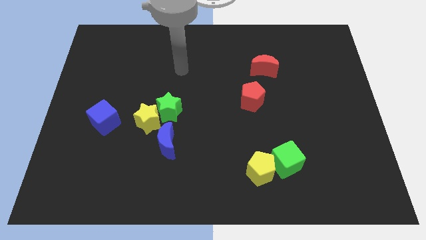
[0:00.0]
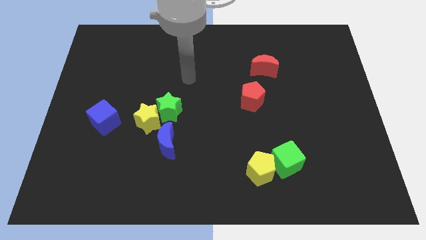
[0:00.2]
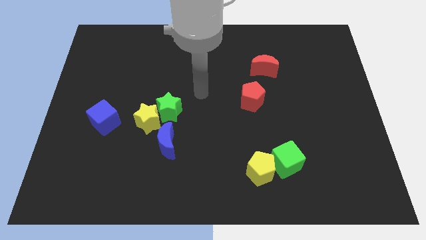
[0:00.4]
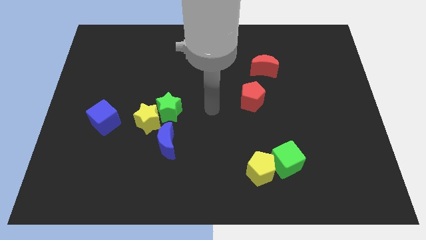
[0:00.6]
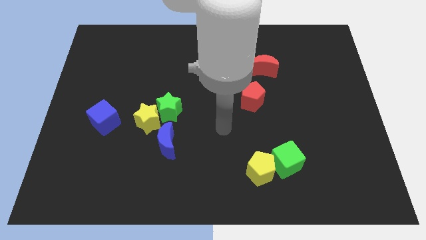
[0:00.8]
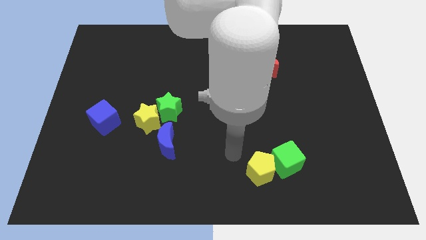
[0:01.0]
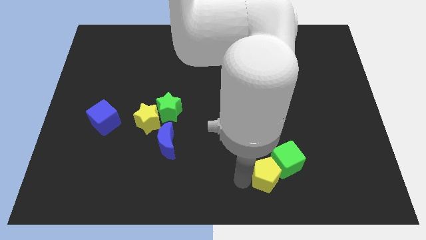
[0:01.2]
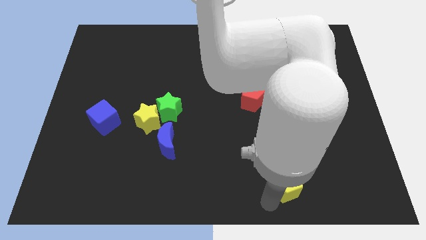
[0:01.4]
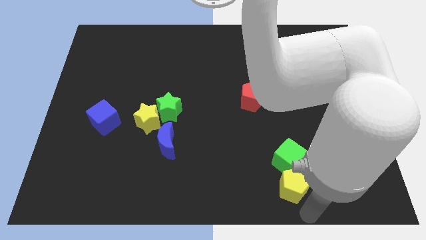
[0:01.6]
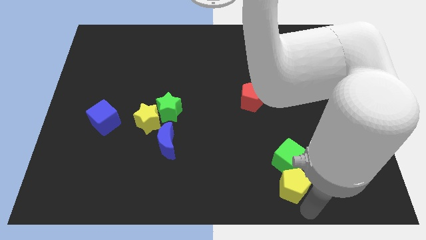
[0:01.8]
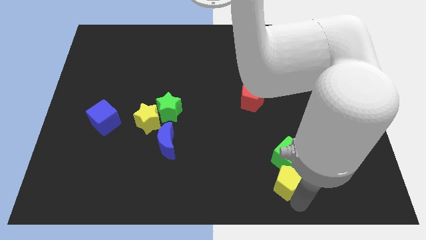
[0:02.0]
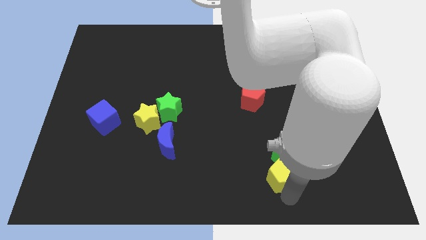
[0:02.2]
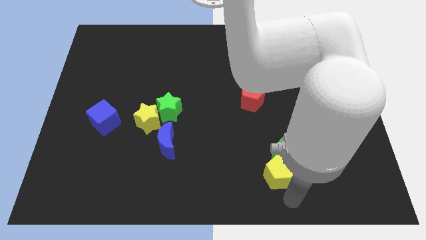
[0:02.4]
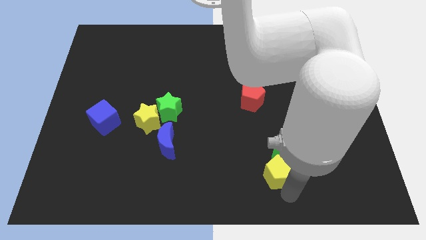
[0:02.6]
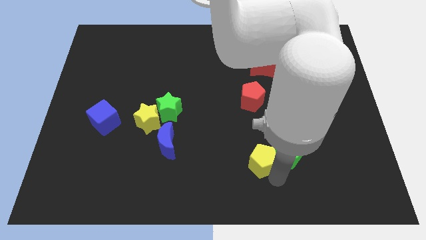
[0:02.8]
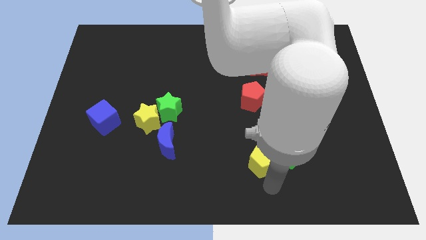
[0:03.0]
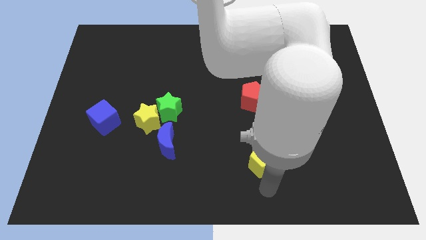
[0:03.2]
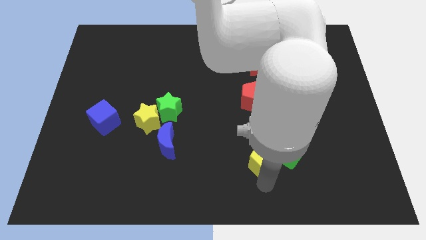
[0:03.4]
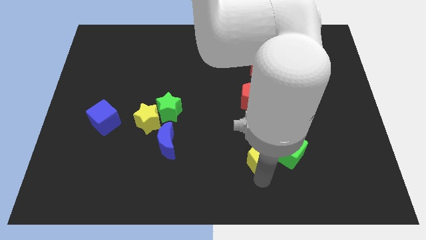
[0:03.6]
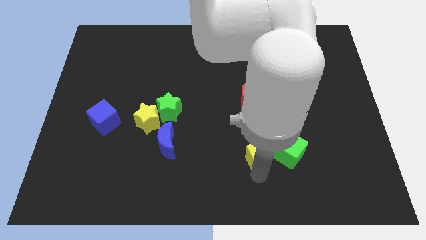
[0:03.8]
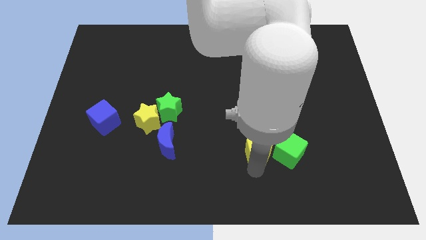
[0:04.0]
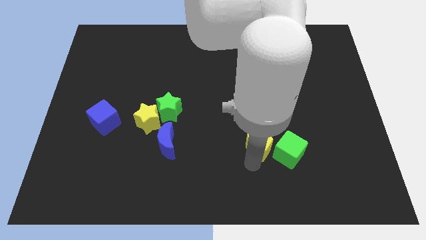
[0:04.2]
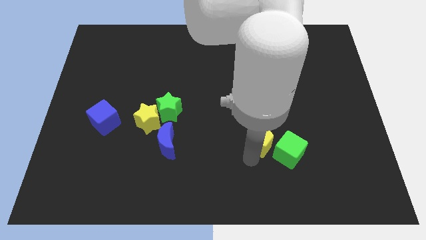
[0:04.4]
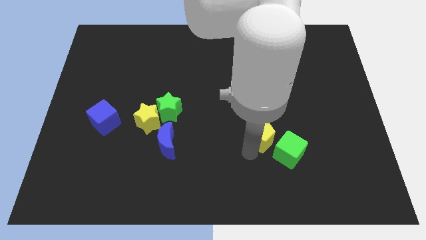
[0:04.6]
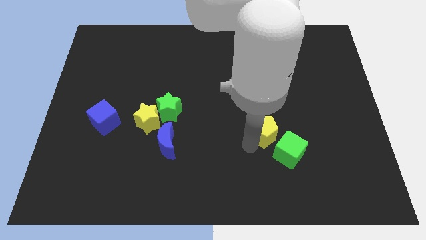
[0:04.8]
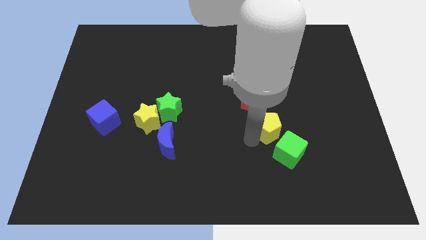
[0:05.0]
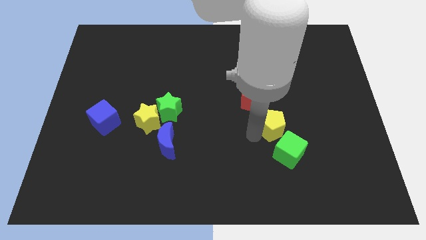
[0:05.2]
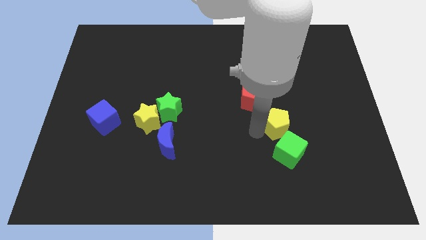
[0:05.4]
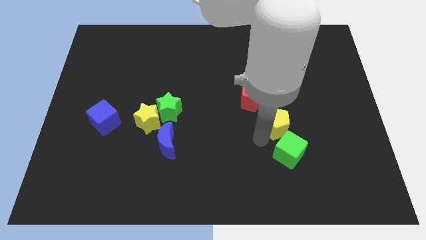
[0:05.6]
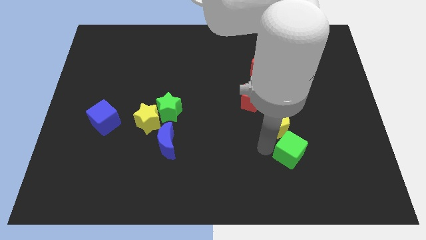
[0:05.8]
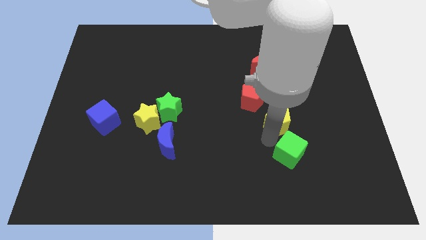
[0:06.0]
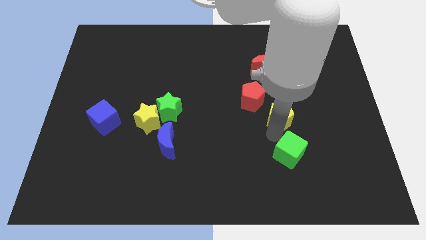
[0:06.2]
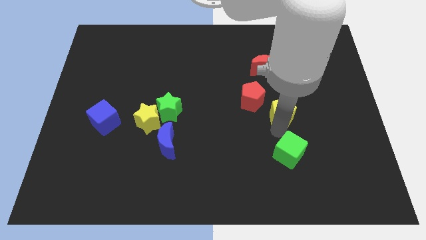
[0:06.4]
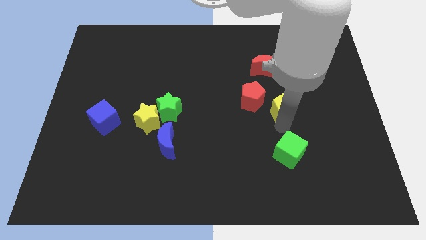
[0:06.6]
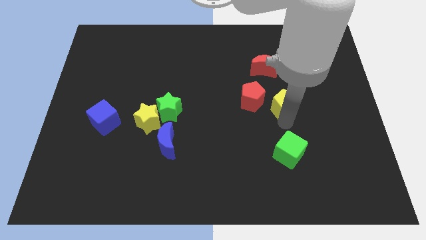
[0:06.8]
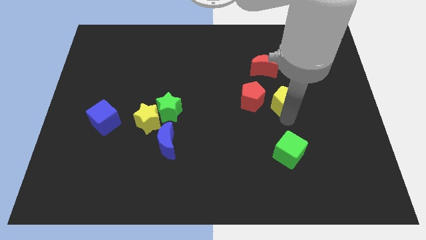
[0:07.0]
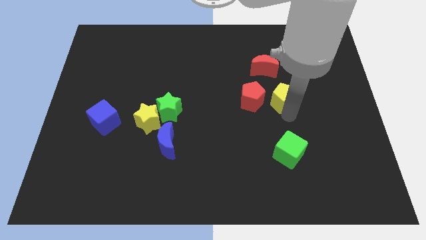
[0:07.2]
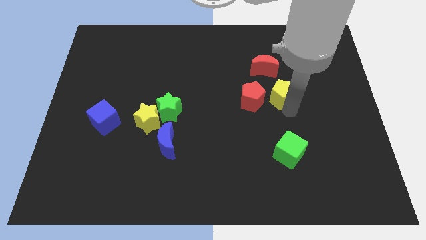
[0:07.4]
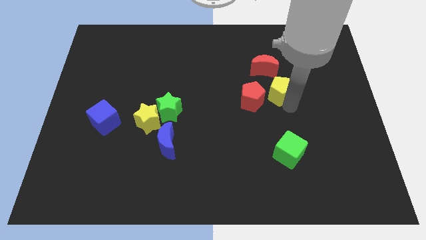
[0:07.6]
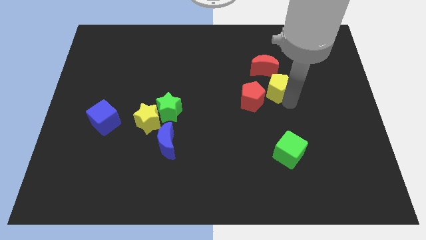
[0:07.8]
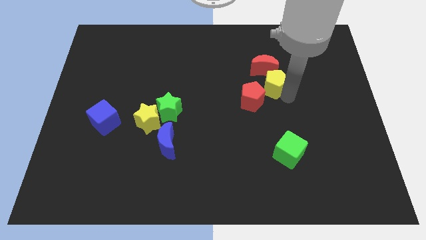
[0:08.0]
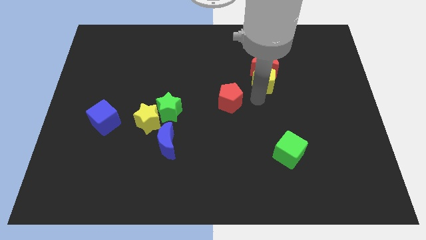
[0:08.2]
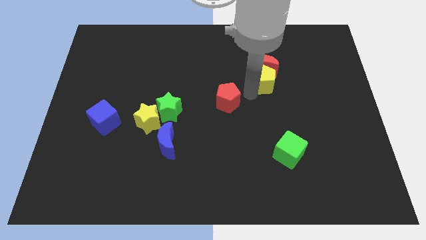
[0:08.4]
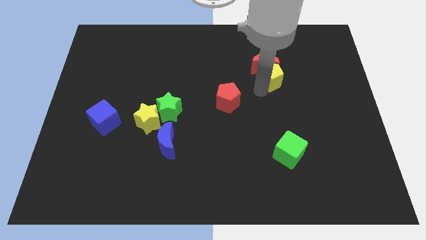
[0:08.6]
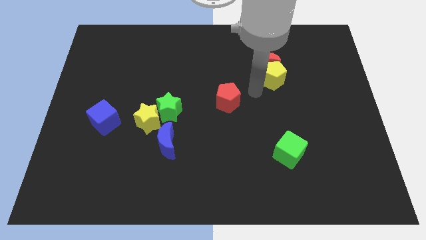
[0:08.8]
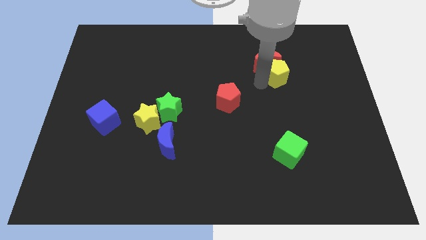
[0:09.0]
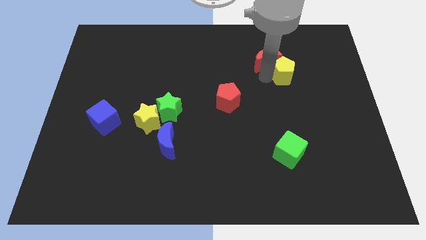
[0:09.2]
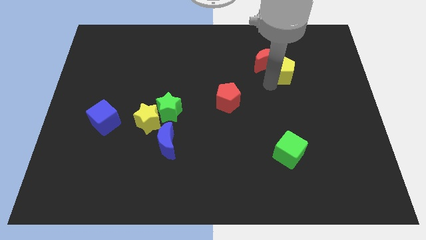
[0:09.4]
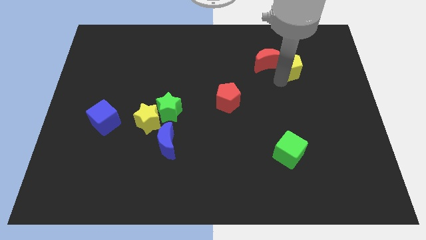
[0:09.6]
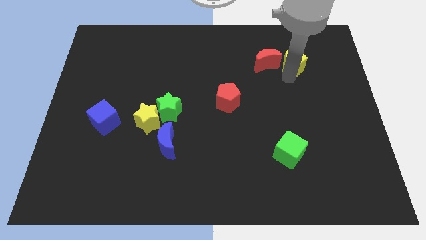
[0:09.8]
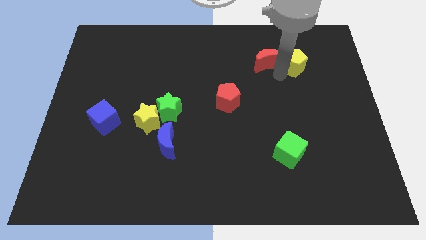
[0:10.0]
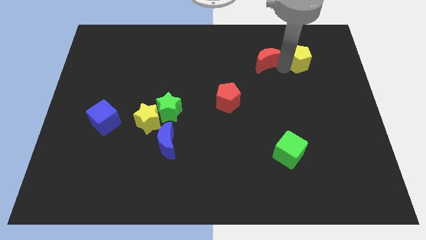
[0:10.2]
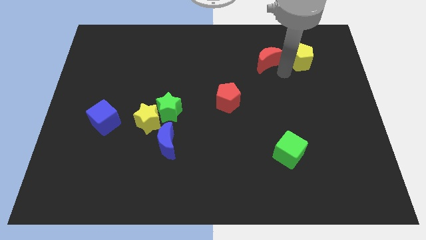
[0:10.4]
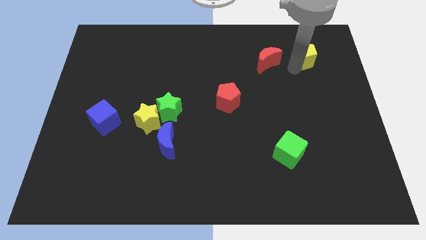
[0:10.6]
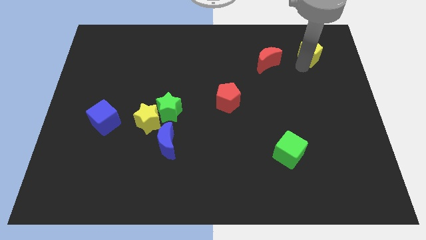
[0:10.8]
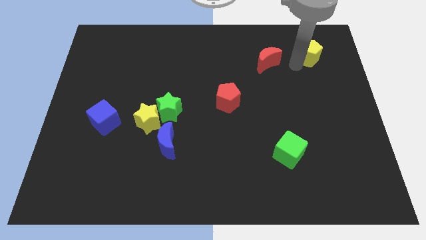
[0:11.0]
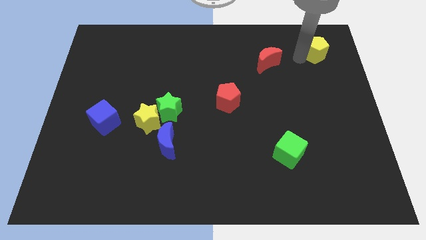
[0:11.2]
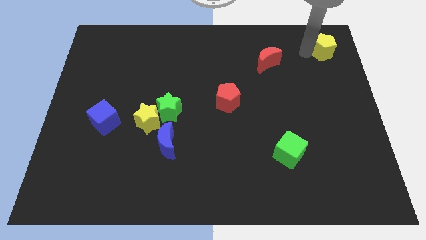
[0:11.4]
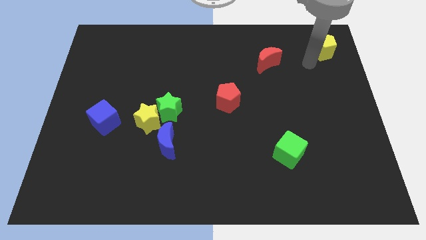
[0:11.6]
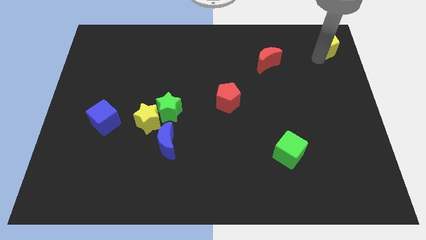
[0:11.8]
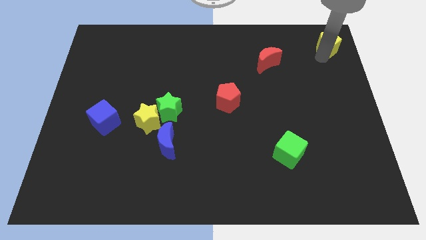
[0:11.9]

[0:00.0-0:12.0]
put the yellow pentagon to the top right of the board

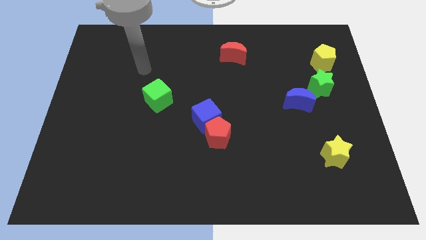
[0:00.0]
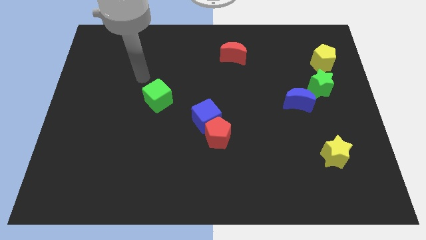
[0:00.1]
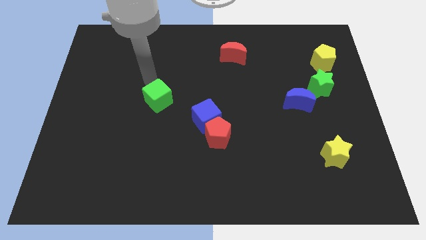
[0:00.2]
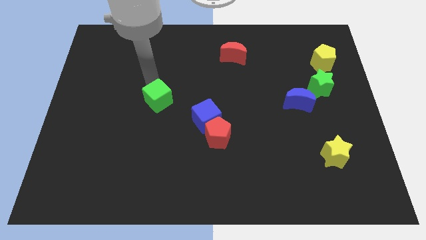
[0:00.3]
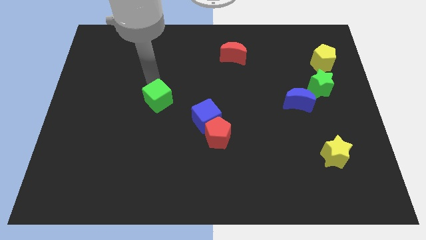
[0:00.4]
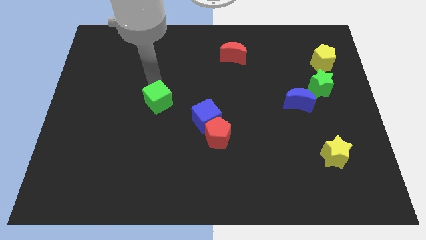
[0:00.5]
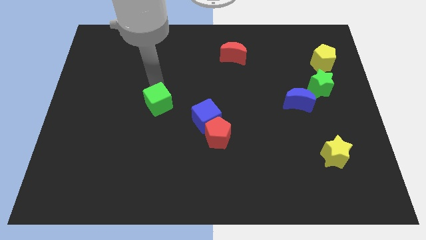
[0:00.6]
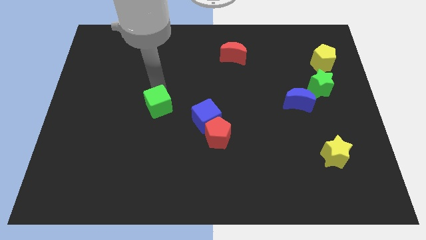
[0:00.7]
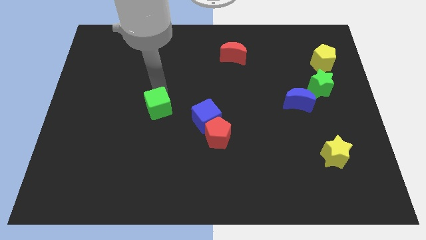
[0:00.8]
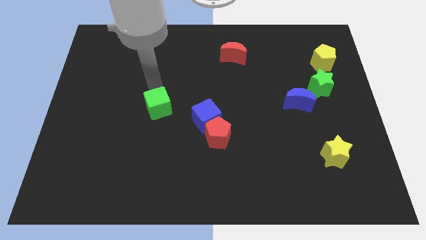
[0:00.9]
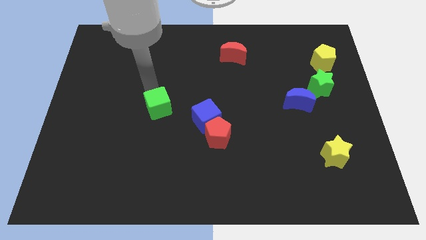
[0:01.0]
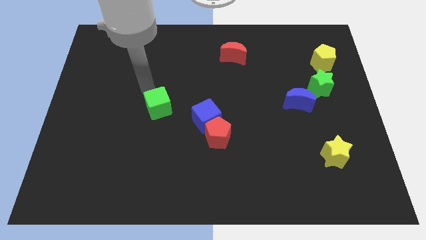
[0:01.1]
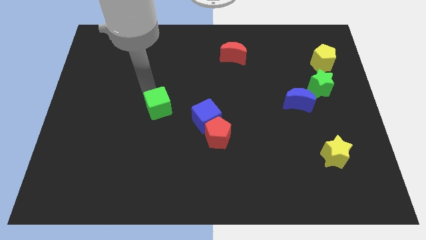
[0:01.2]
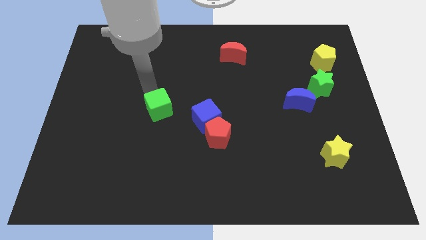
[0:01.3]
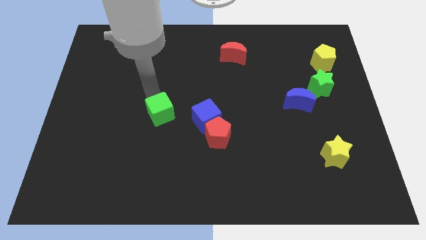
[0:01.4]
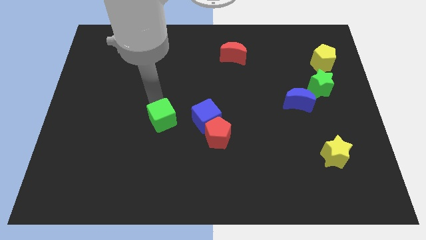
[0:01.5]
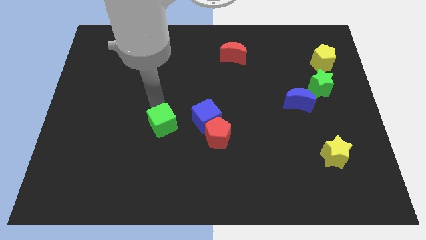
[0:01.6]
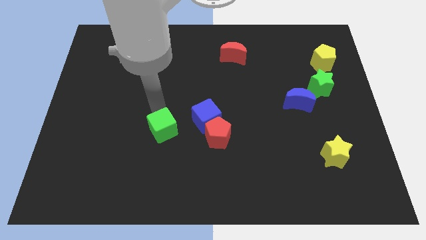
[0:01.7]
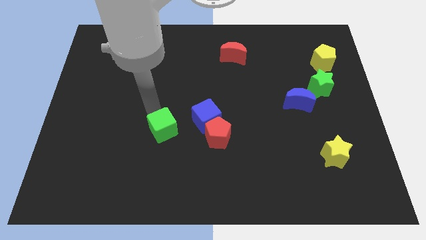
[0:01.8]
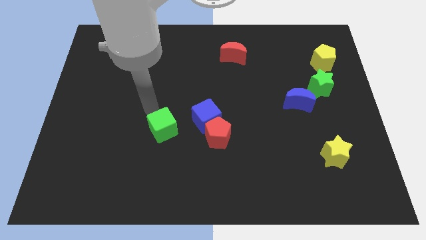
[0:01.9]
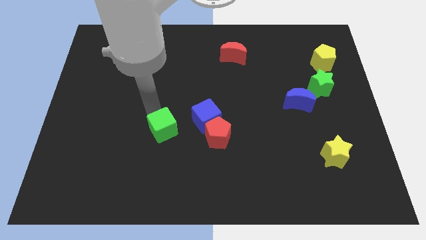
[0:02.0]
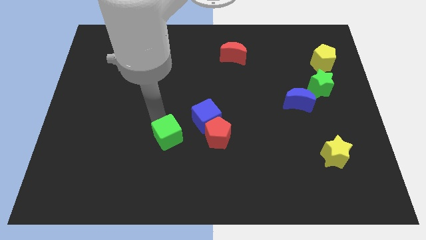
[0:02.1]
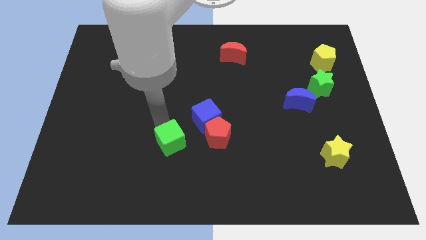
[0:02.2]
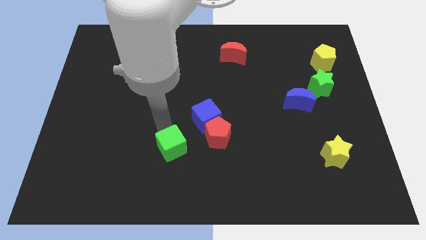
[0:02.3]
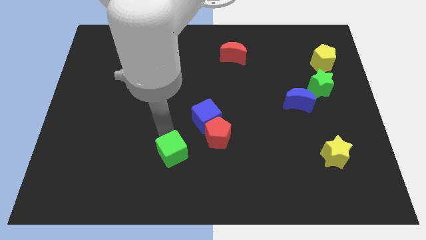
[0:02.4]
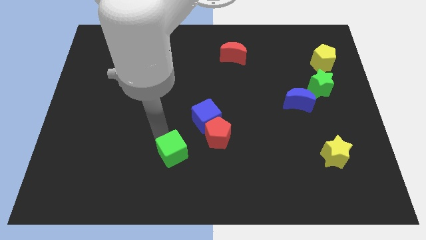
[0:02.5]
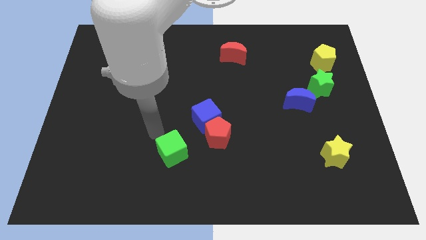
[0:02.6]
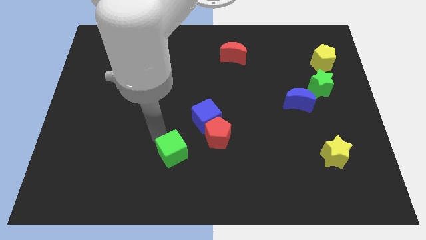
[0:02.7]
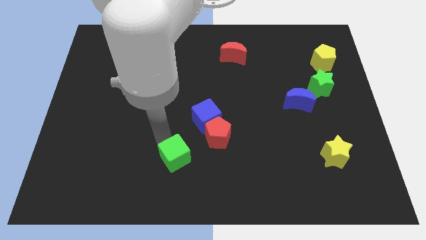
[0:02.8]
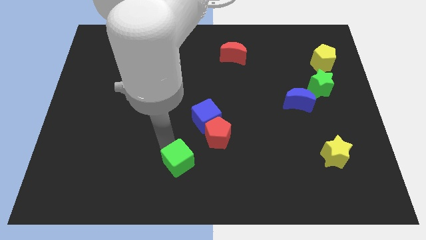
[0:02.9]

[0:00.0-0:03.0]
slide the green cube to the bottom
